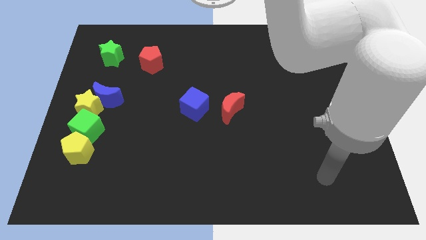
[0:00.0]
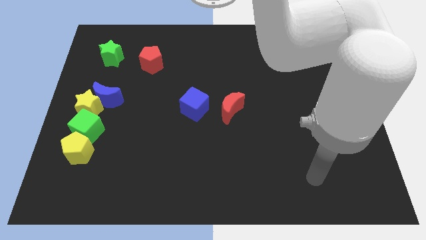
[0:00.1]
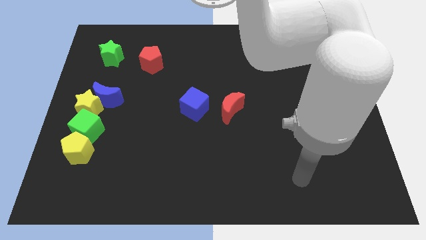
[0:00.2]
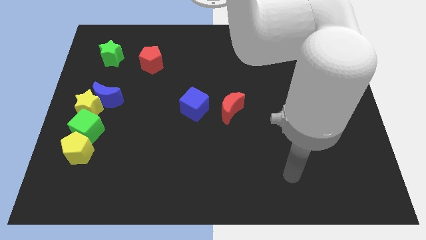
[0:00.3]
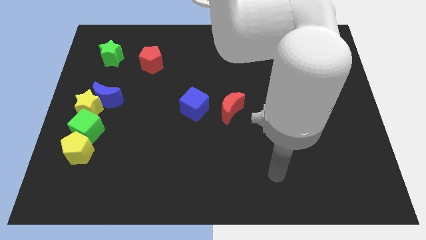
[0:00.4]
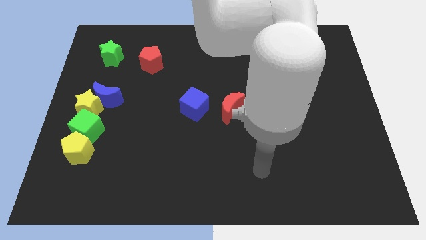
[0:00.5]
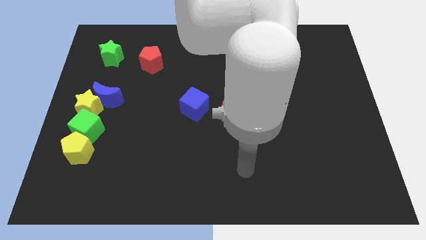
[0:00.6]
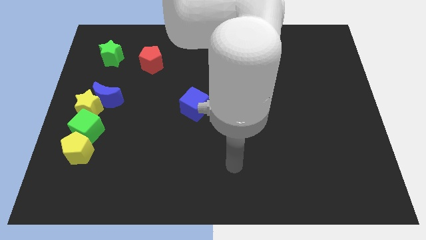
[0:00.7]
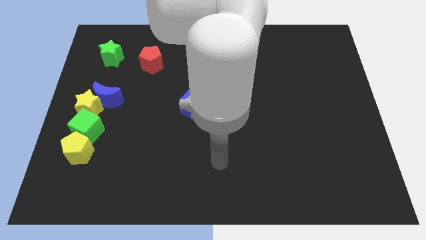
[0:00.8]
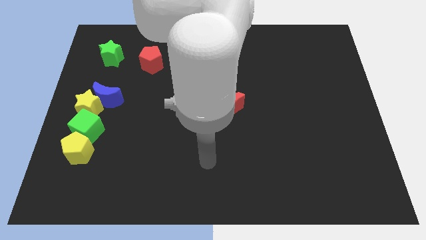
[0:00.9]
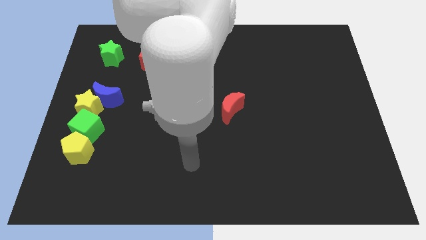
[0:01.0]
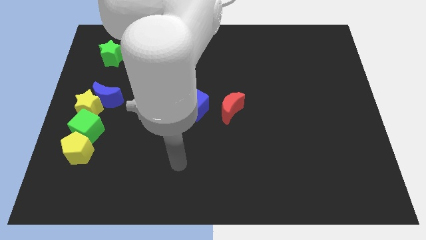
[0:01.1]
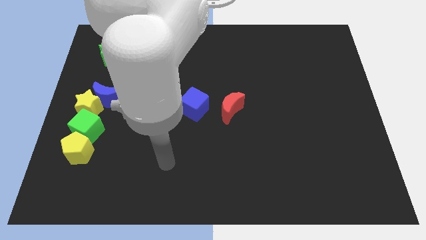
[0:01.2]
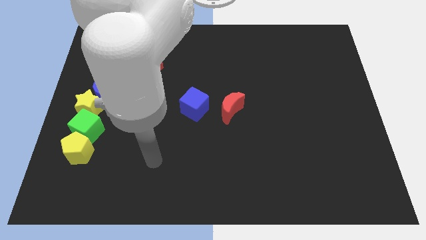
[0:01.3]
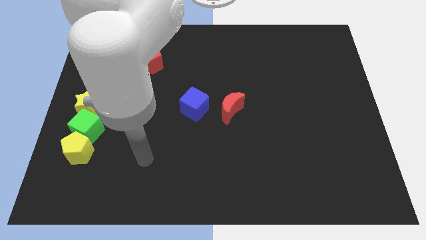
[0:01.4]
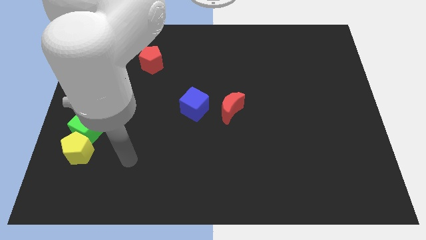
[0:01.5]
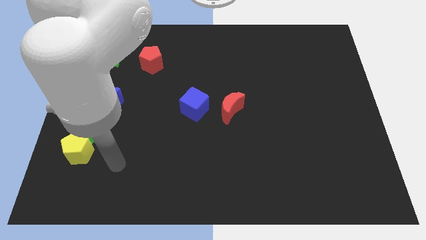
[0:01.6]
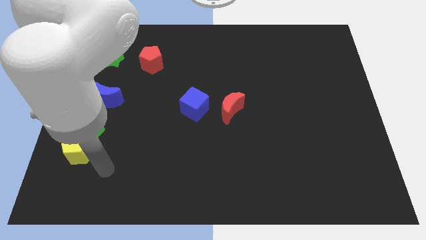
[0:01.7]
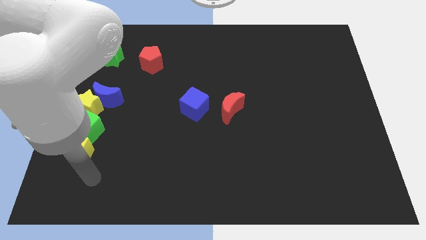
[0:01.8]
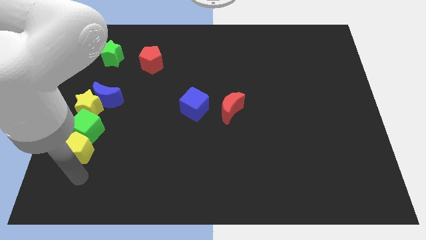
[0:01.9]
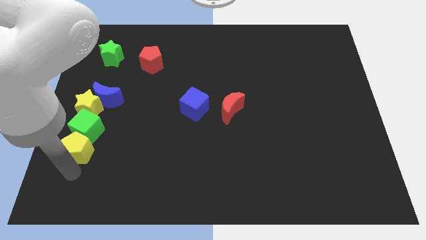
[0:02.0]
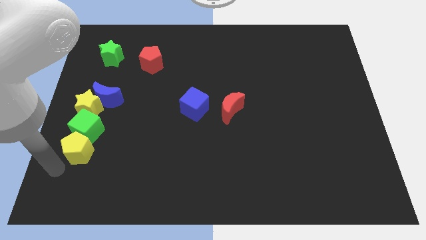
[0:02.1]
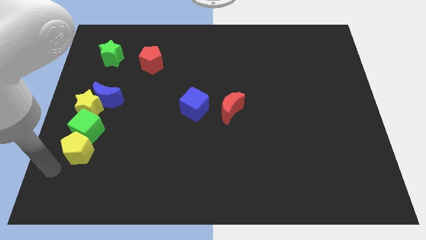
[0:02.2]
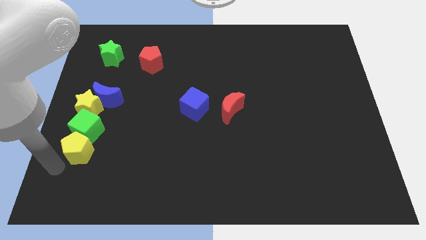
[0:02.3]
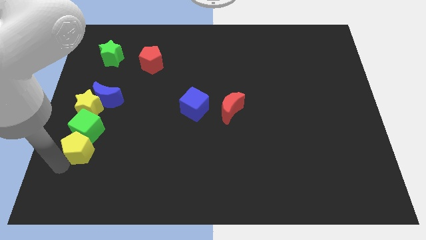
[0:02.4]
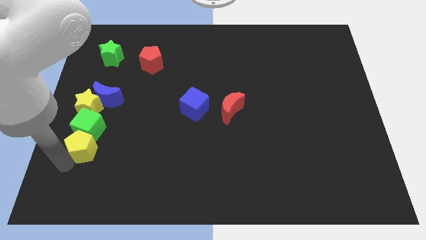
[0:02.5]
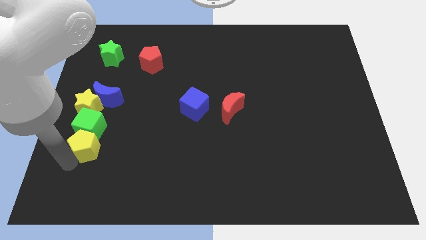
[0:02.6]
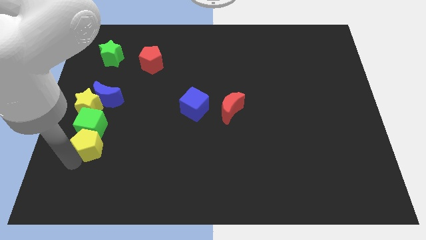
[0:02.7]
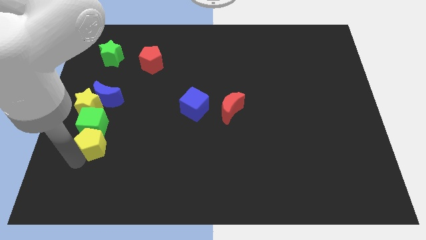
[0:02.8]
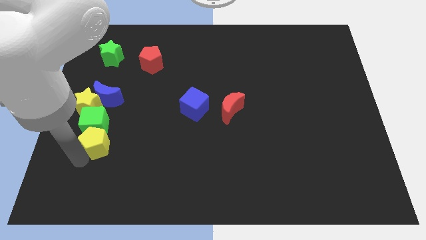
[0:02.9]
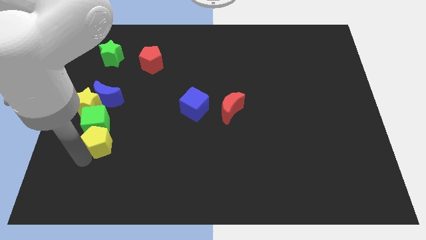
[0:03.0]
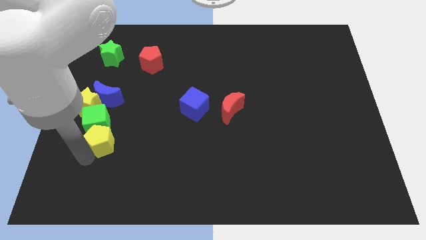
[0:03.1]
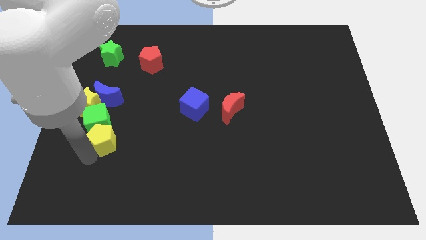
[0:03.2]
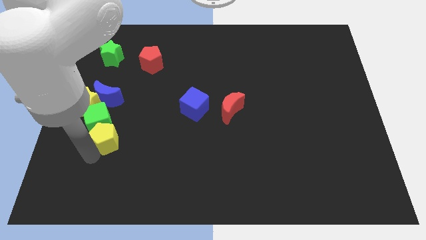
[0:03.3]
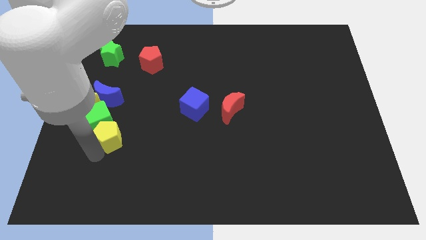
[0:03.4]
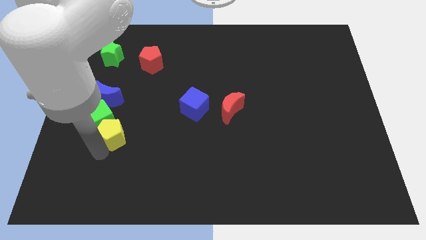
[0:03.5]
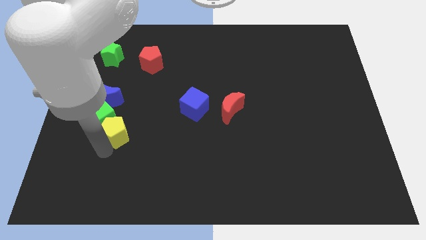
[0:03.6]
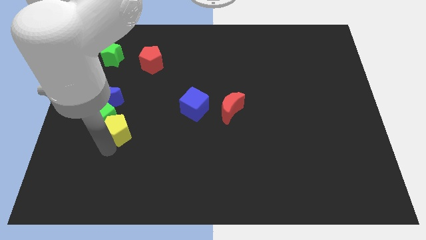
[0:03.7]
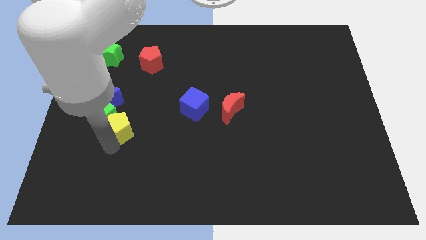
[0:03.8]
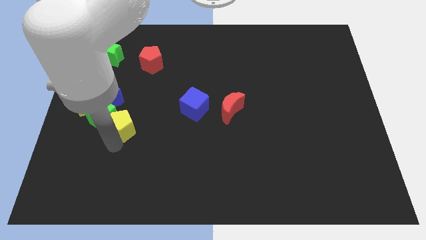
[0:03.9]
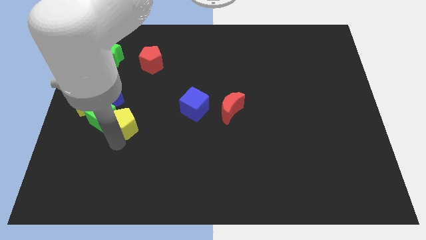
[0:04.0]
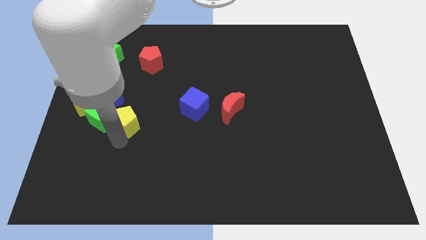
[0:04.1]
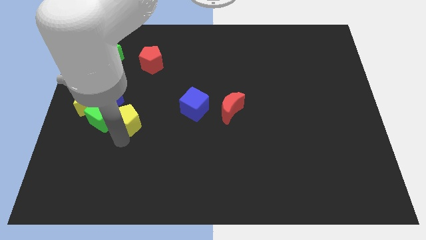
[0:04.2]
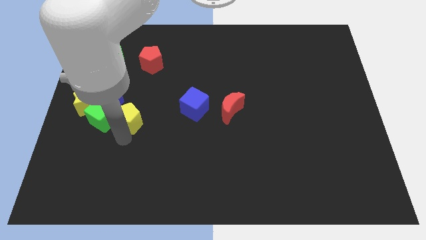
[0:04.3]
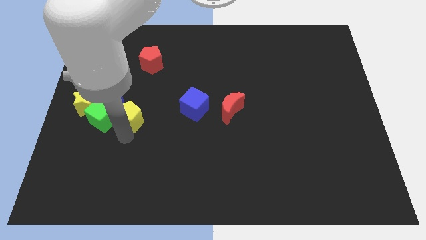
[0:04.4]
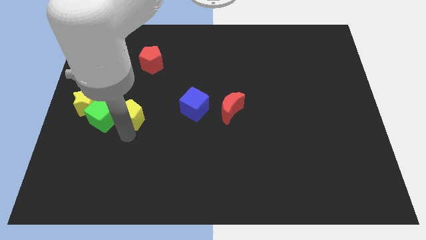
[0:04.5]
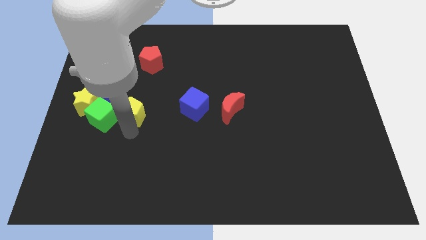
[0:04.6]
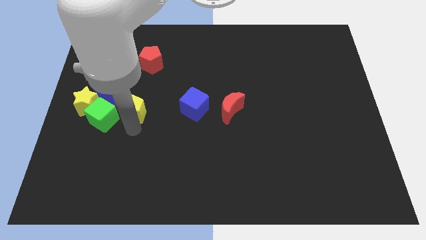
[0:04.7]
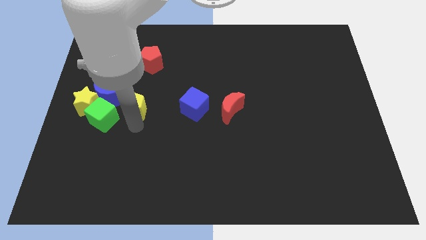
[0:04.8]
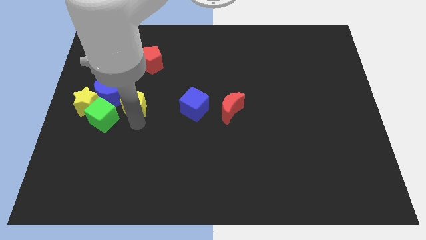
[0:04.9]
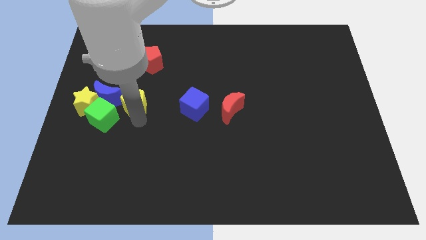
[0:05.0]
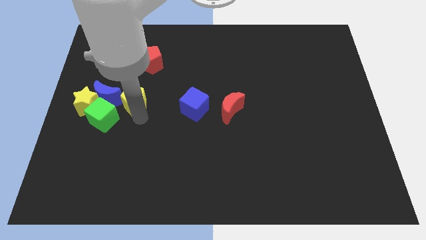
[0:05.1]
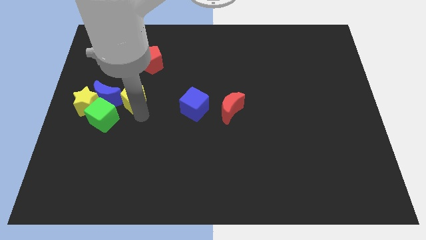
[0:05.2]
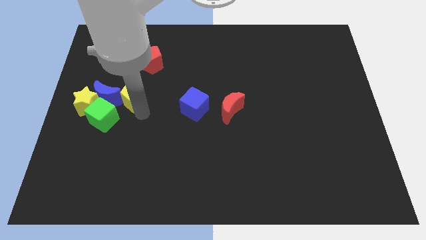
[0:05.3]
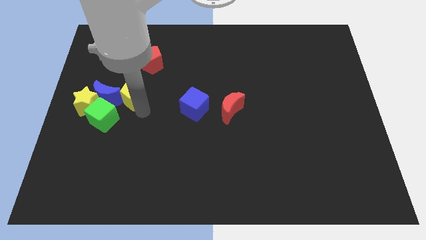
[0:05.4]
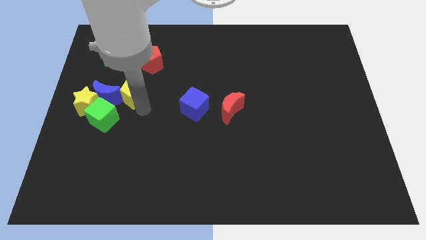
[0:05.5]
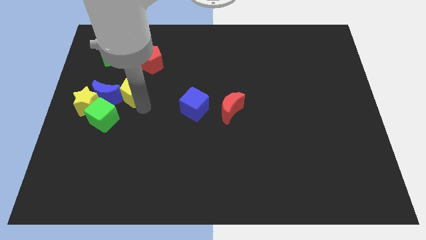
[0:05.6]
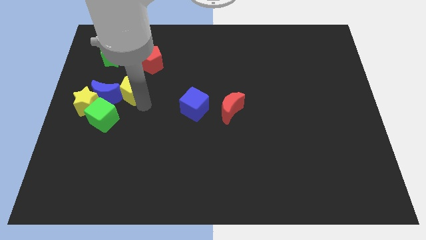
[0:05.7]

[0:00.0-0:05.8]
move the yellow pentagon to the bottom left of the red pentagon
